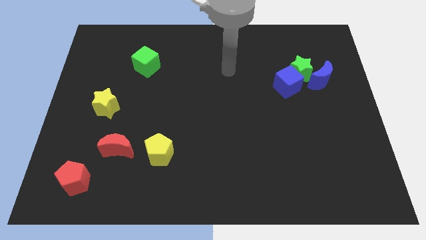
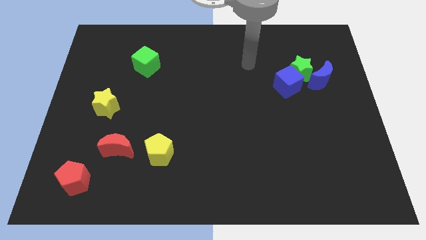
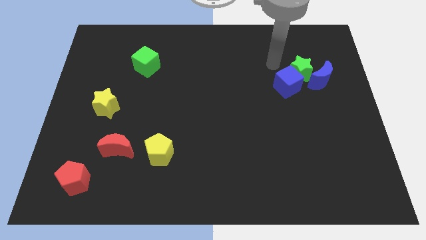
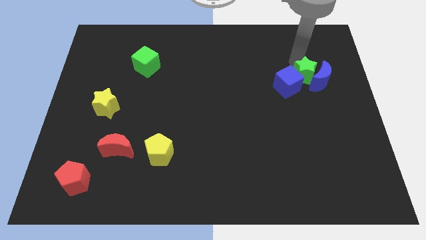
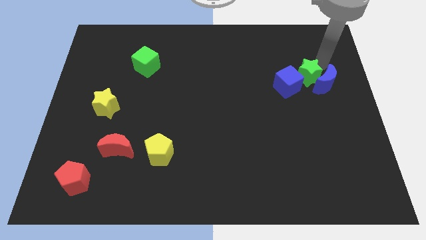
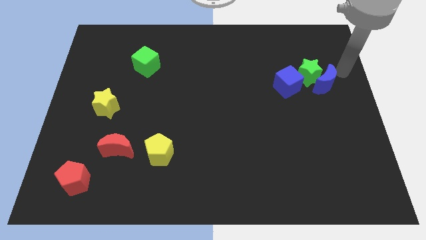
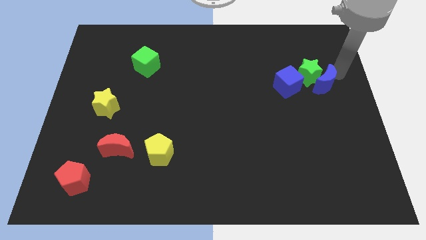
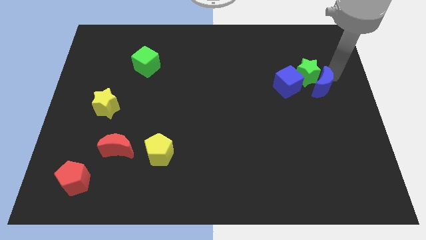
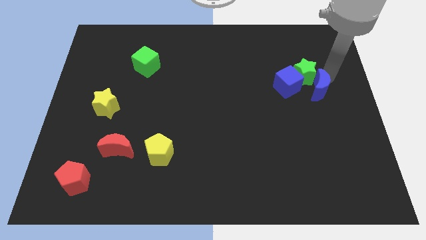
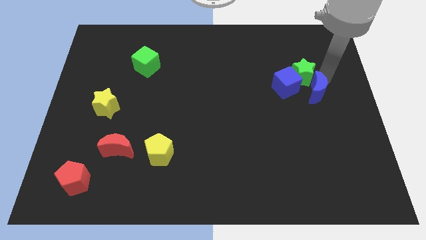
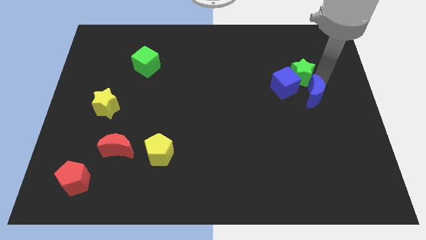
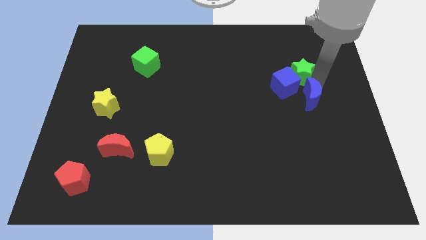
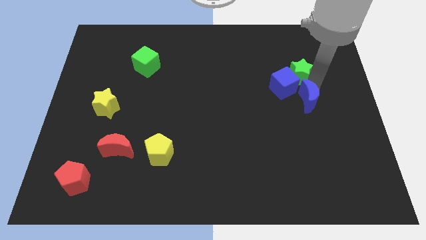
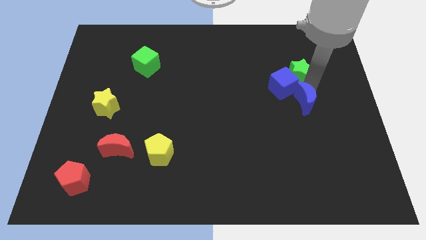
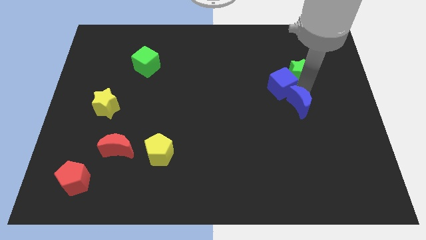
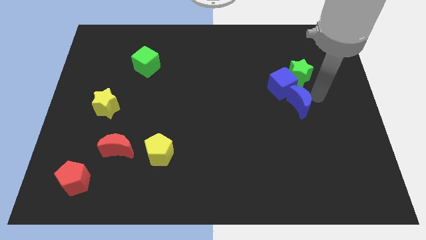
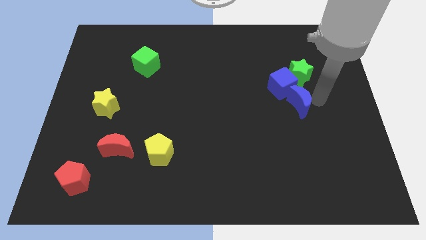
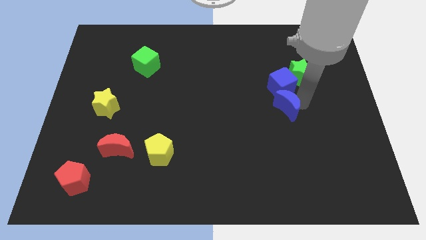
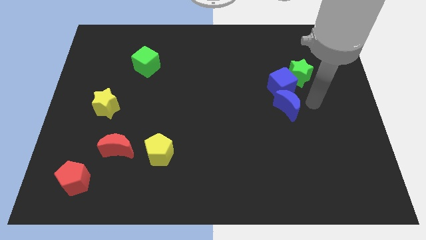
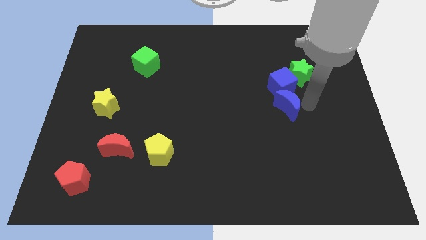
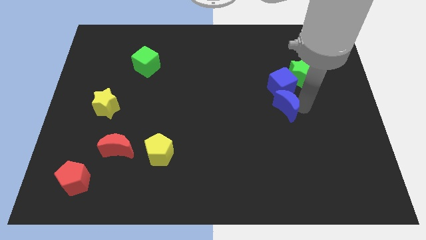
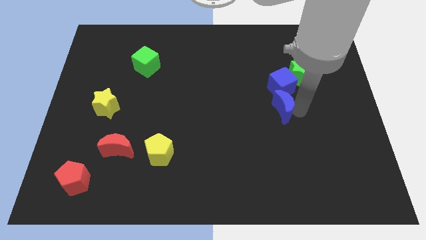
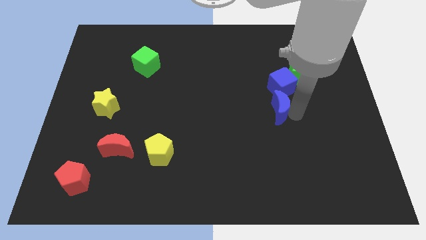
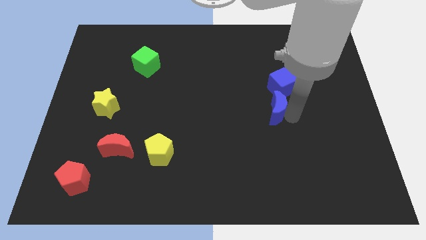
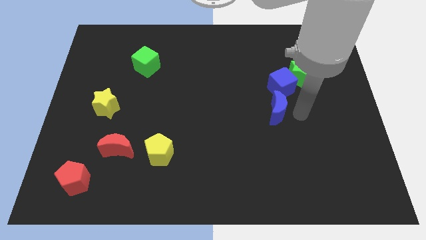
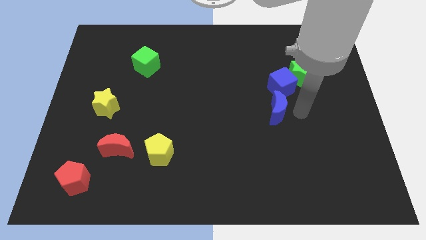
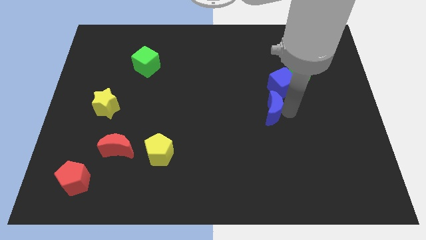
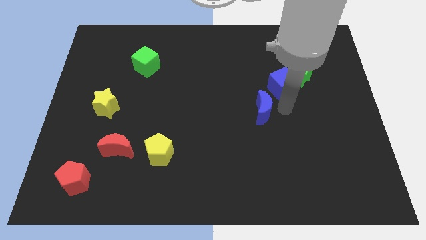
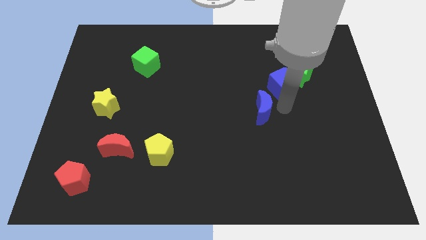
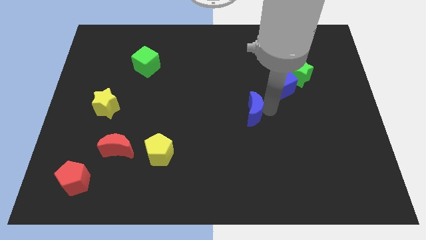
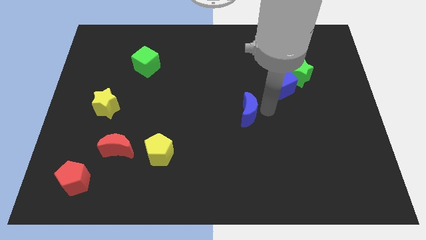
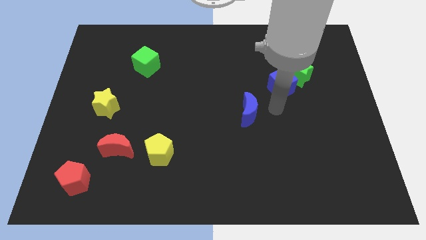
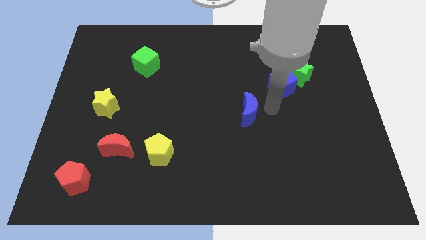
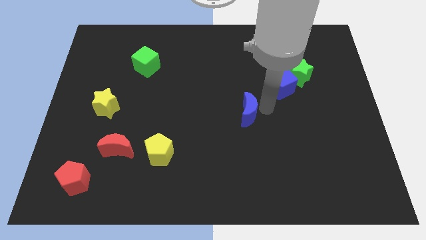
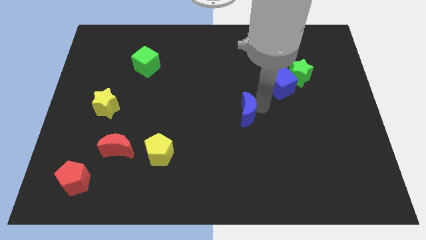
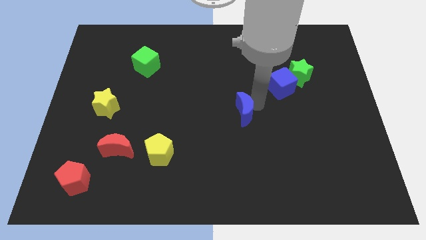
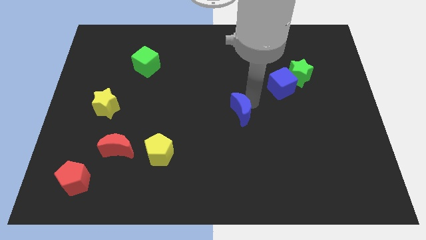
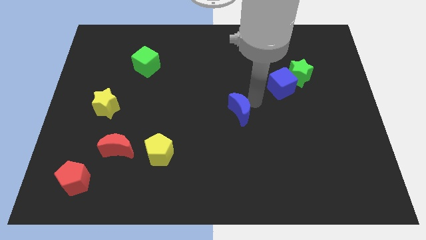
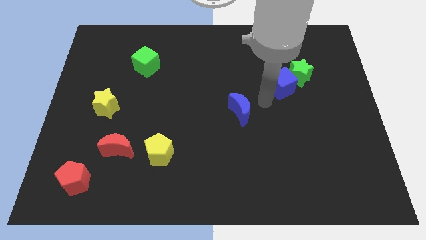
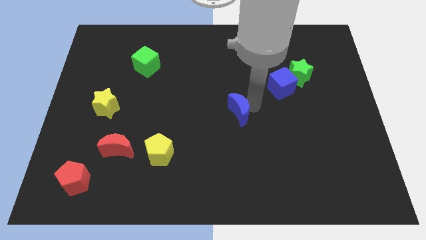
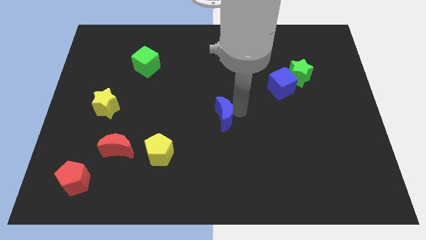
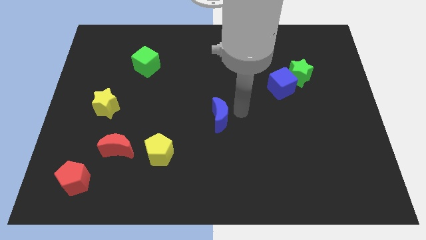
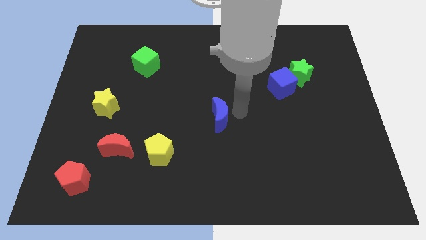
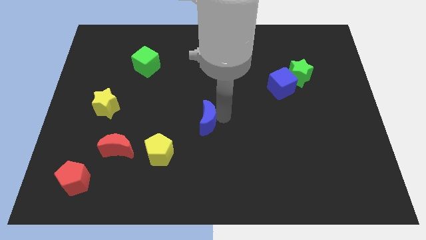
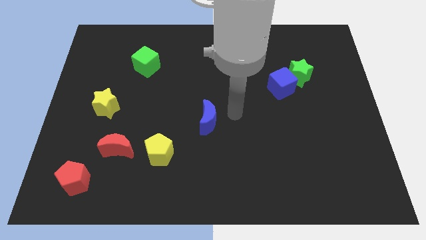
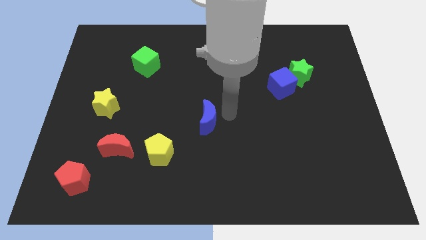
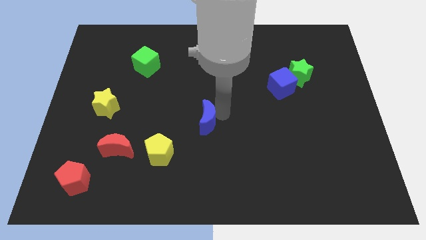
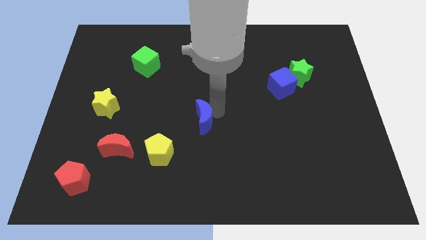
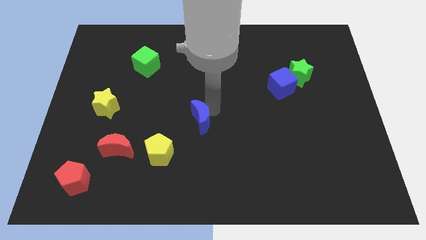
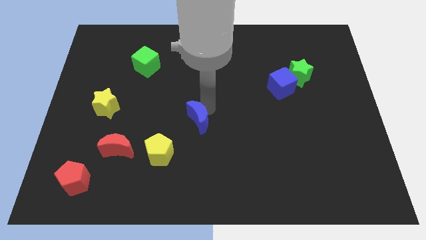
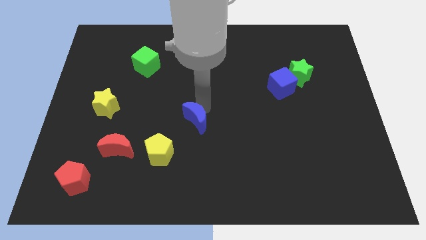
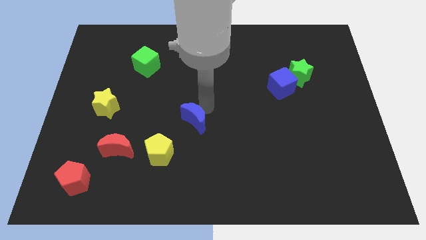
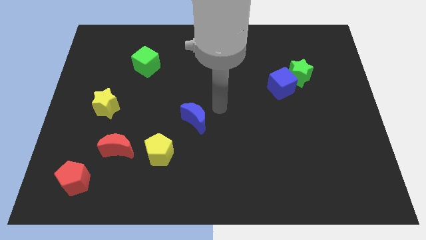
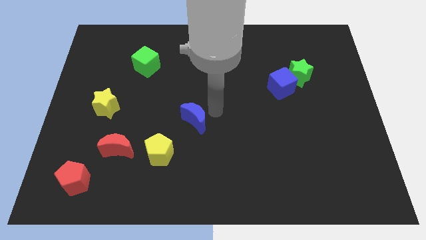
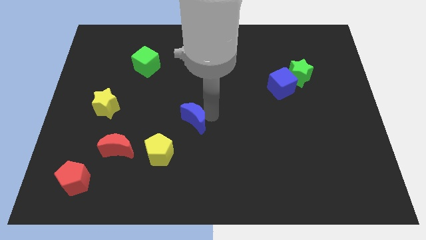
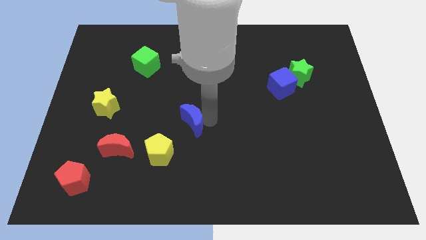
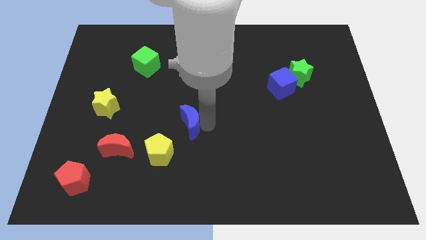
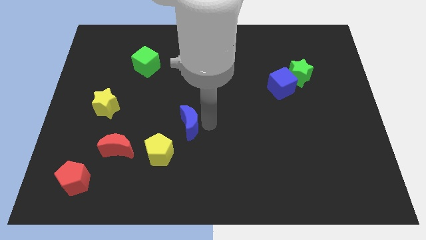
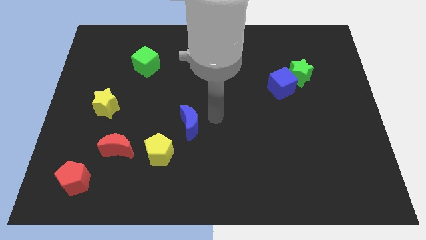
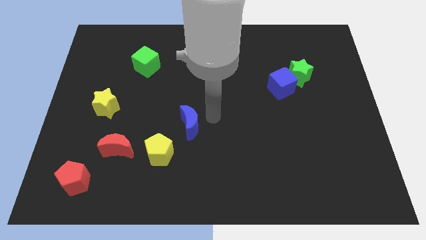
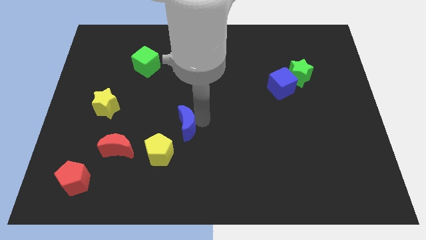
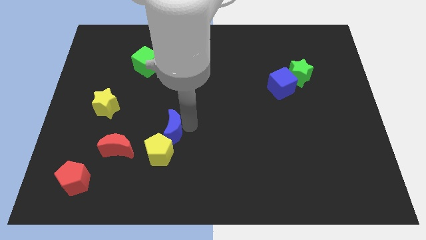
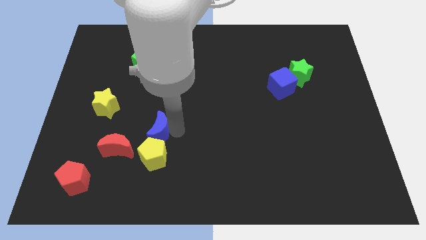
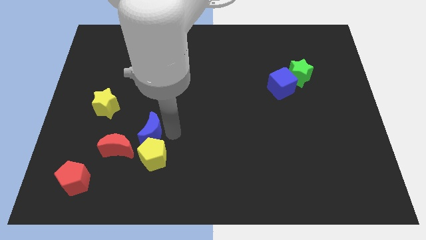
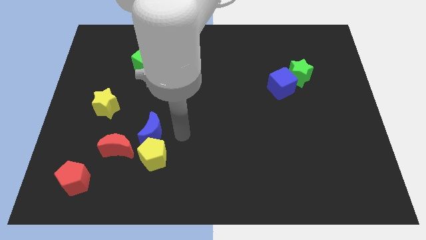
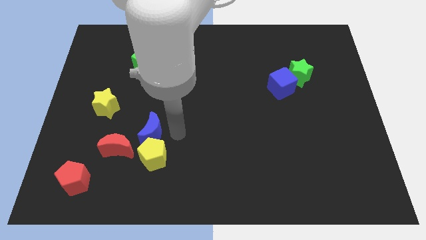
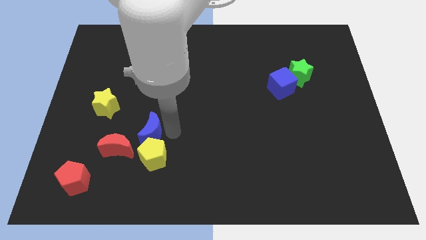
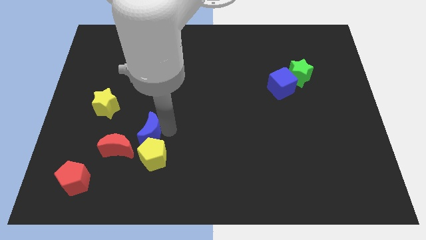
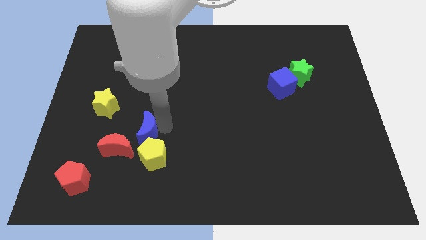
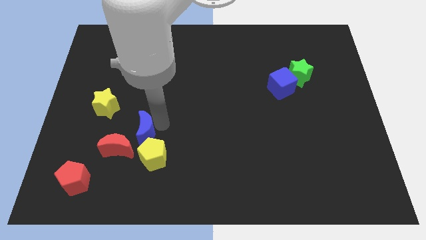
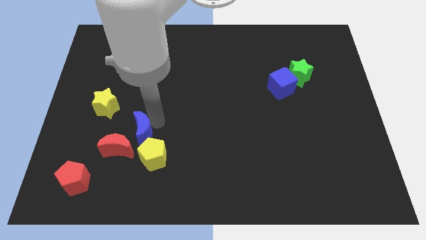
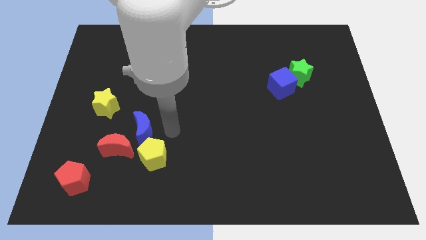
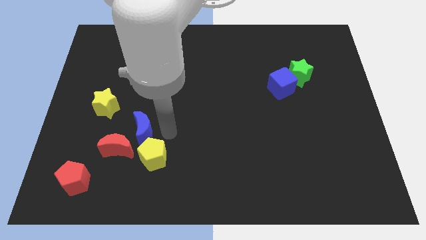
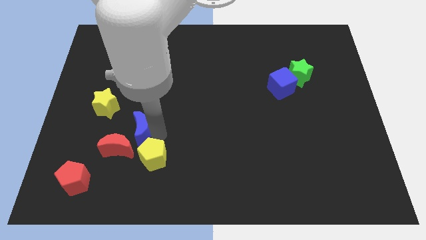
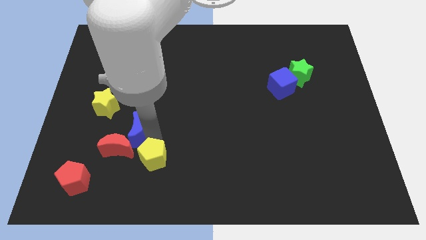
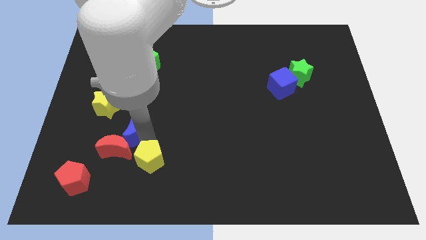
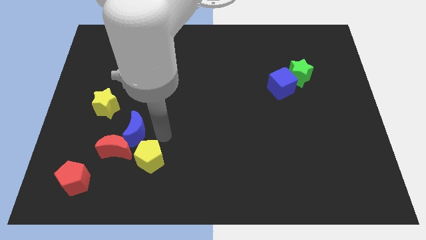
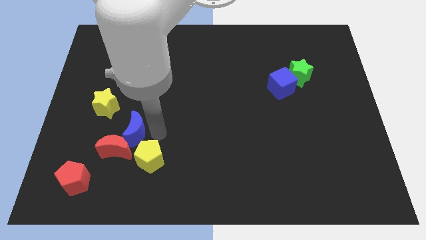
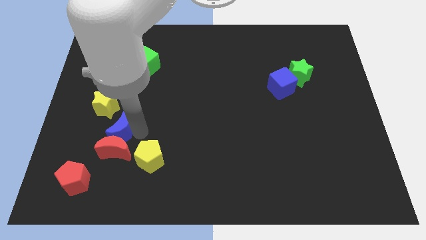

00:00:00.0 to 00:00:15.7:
move the blue moon to the top left of the red moon
